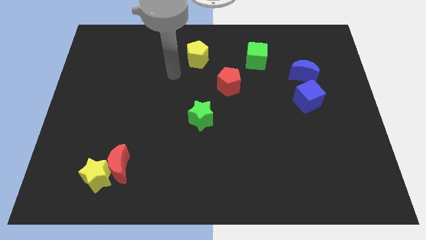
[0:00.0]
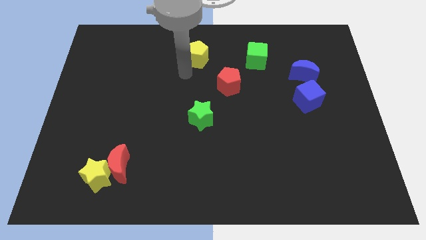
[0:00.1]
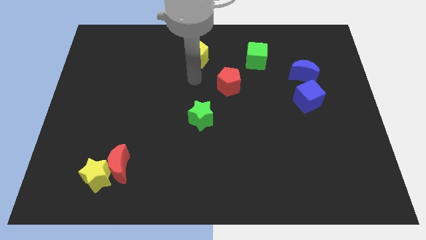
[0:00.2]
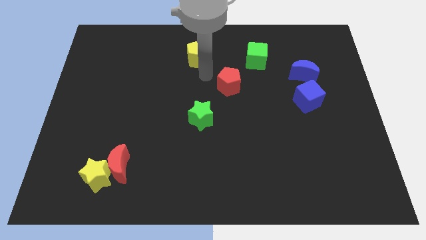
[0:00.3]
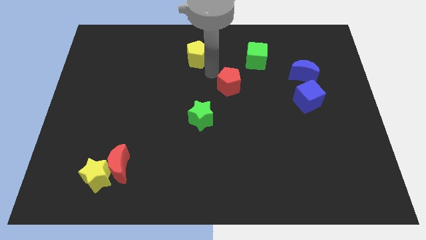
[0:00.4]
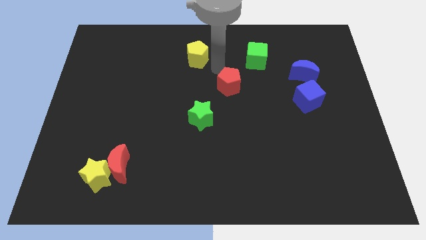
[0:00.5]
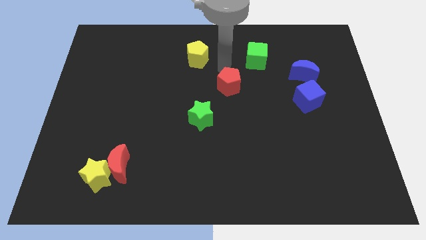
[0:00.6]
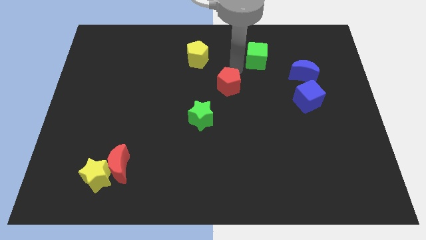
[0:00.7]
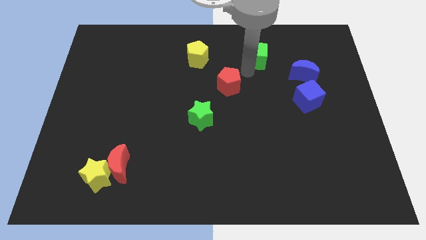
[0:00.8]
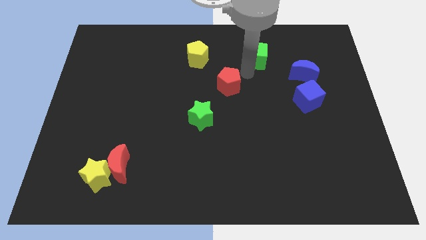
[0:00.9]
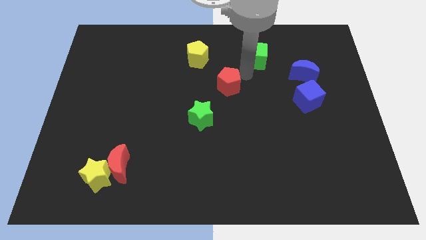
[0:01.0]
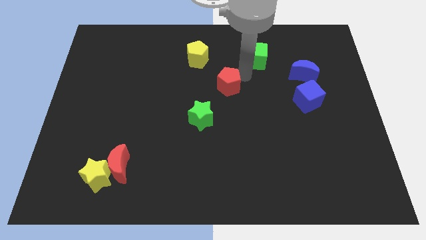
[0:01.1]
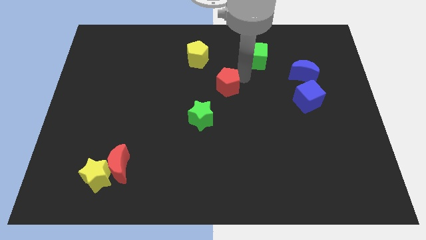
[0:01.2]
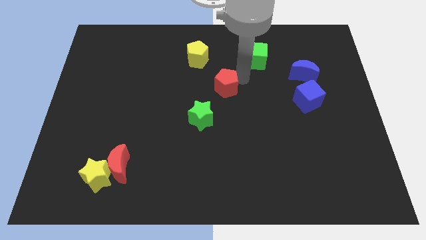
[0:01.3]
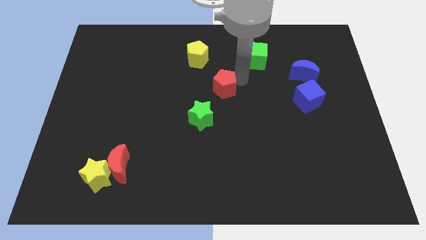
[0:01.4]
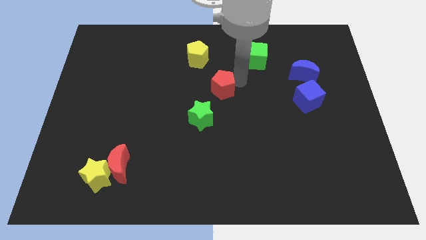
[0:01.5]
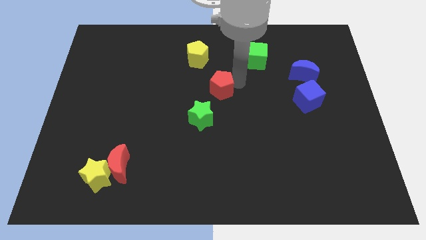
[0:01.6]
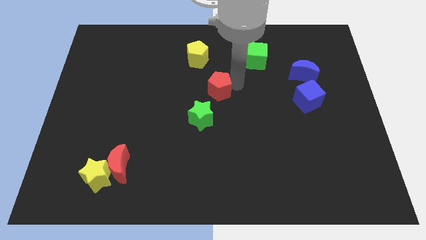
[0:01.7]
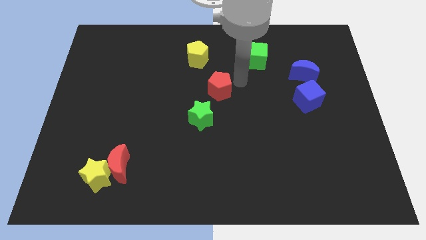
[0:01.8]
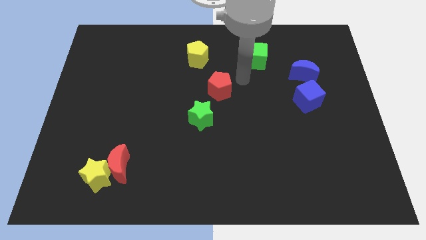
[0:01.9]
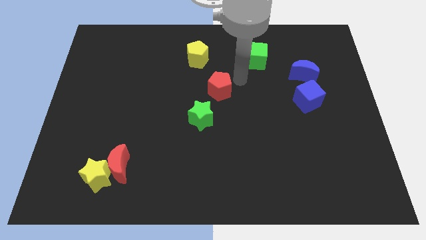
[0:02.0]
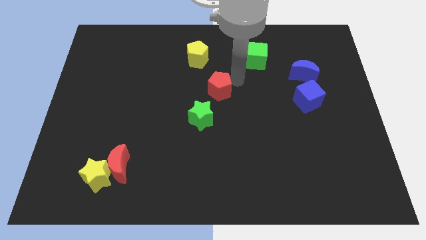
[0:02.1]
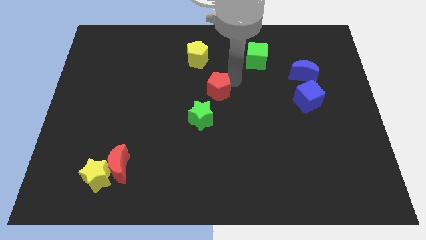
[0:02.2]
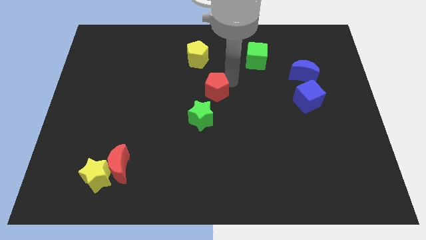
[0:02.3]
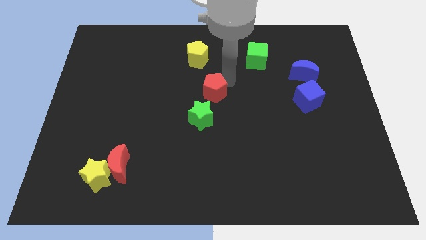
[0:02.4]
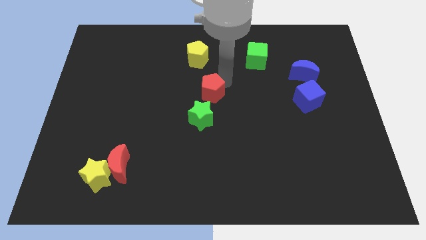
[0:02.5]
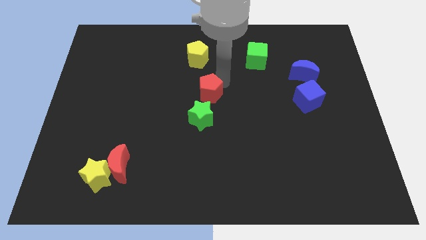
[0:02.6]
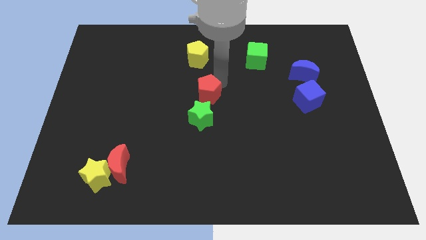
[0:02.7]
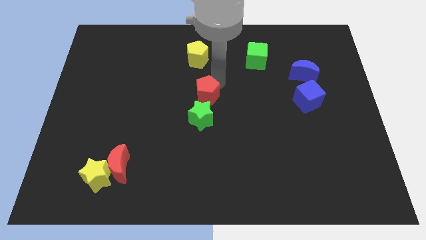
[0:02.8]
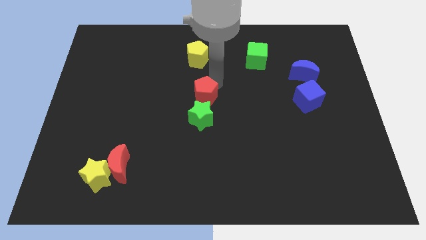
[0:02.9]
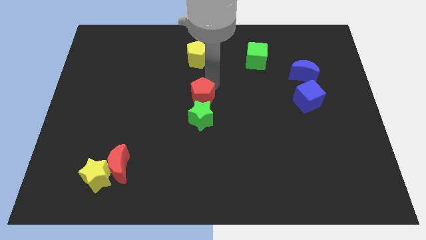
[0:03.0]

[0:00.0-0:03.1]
slide the red pentagon somewhat downwards and left diagonally

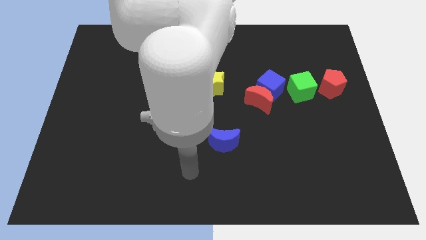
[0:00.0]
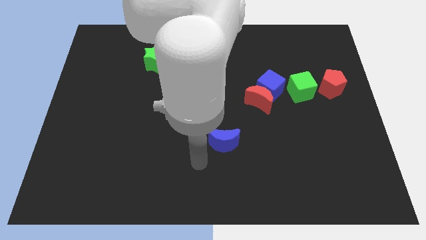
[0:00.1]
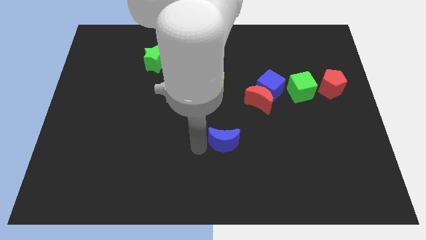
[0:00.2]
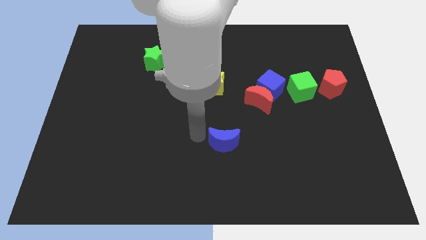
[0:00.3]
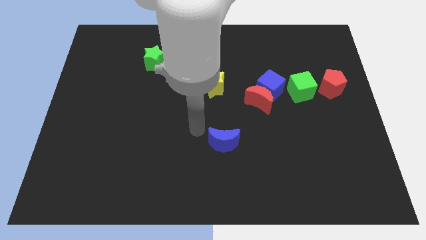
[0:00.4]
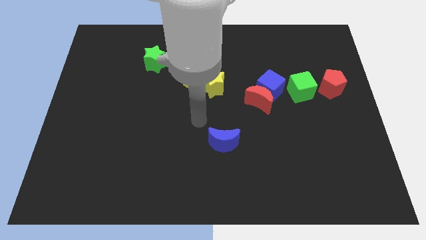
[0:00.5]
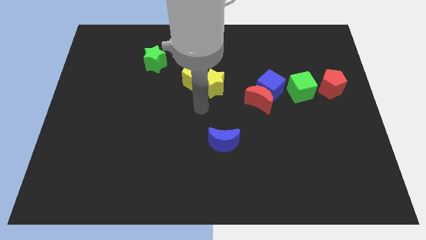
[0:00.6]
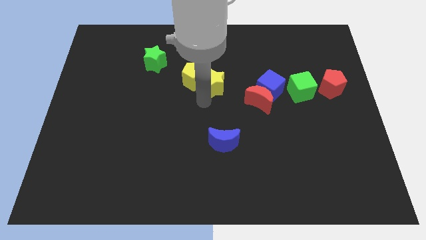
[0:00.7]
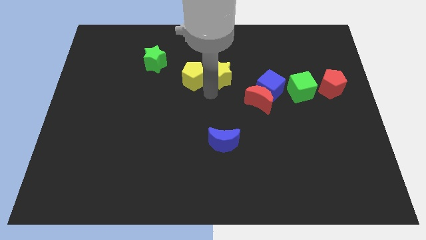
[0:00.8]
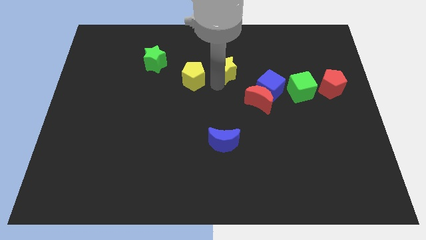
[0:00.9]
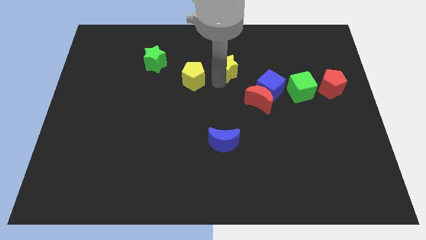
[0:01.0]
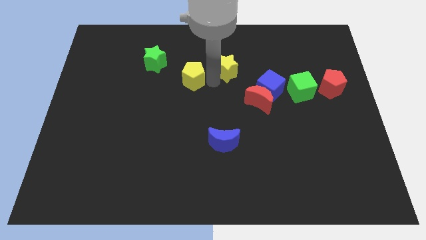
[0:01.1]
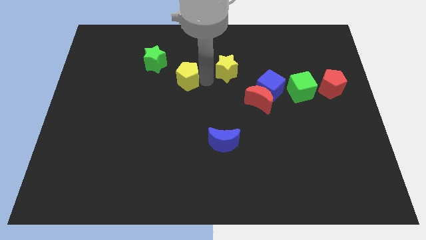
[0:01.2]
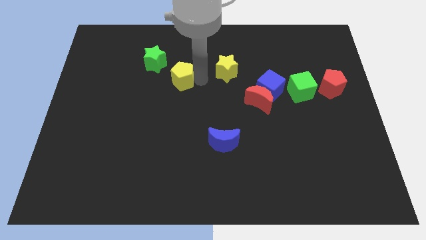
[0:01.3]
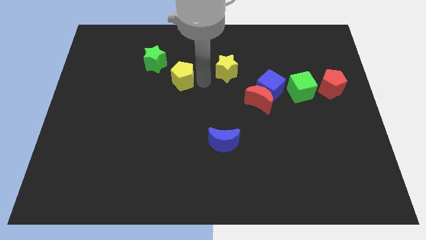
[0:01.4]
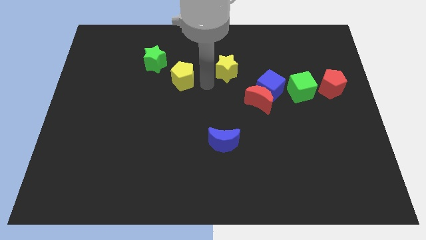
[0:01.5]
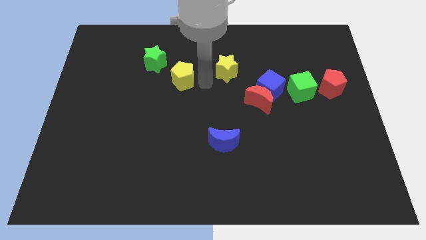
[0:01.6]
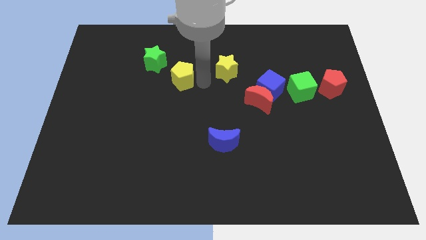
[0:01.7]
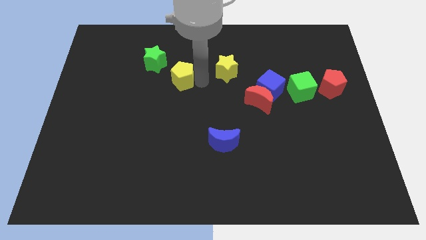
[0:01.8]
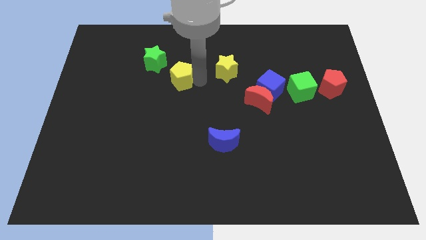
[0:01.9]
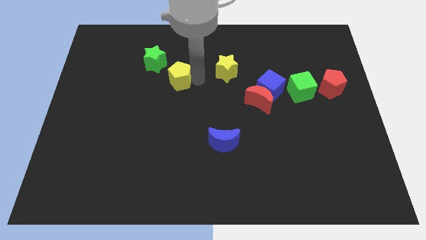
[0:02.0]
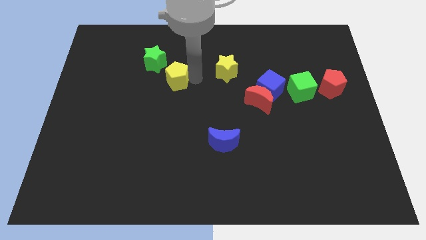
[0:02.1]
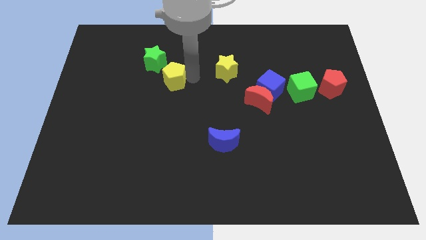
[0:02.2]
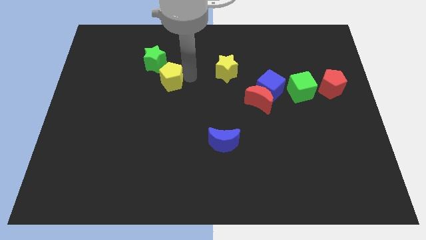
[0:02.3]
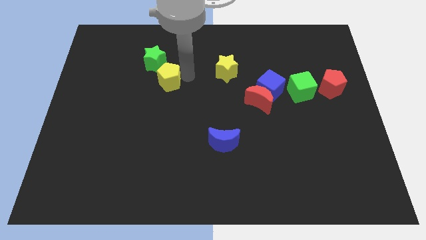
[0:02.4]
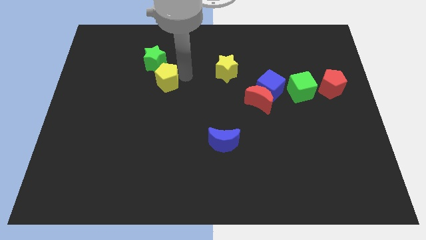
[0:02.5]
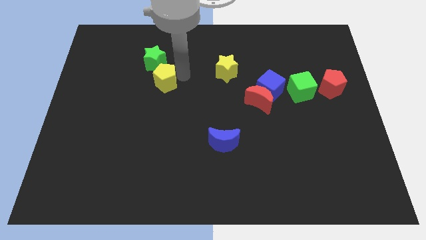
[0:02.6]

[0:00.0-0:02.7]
move the yellow pentagon slightly to the left

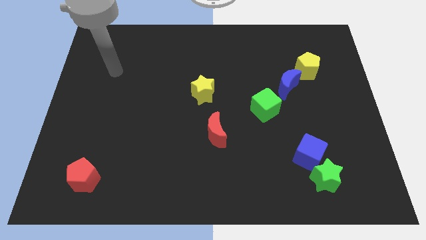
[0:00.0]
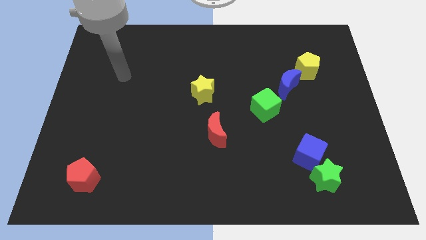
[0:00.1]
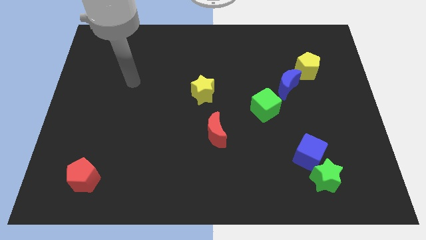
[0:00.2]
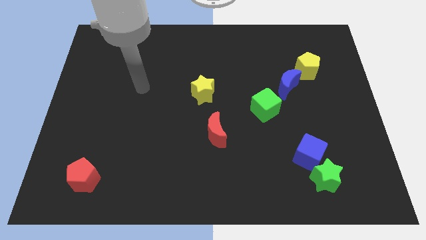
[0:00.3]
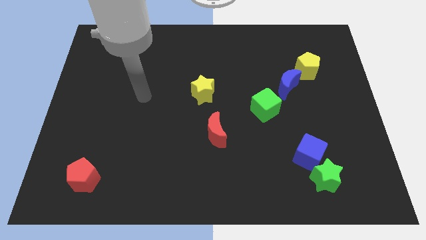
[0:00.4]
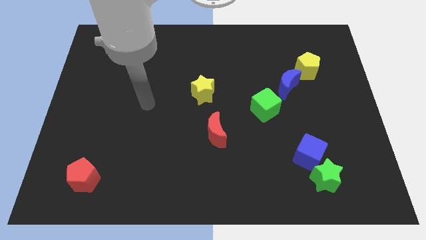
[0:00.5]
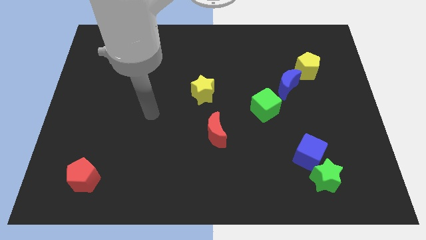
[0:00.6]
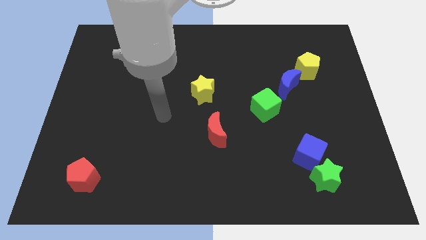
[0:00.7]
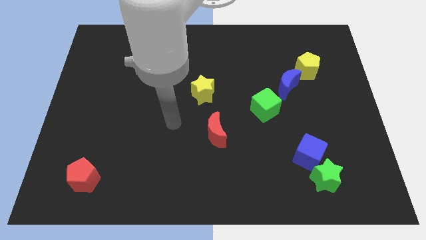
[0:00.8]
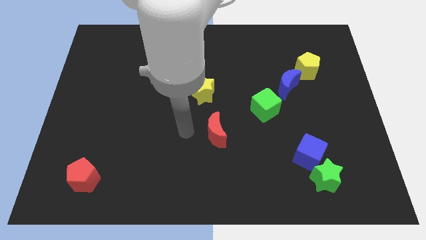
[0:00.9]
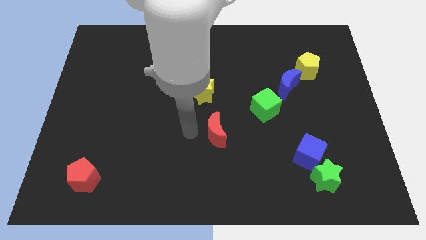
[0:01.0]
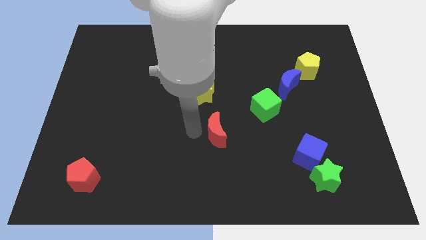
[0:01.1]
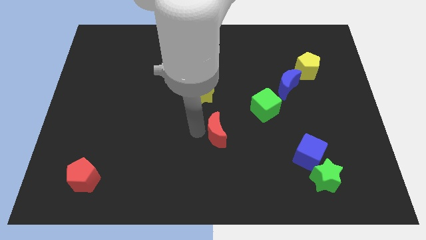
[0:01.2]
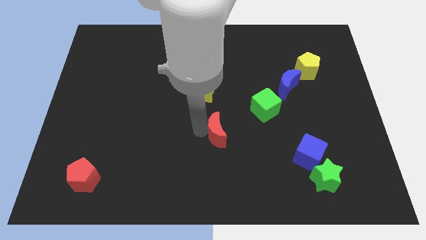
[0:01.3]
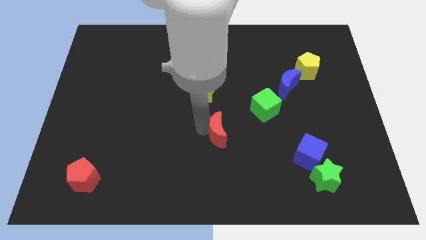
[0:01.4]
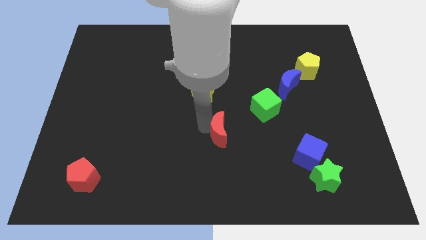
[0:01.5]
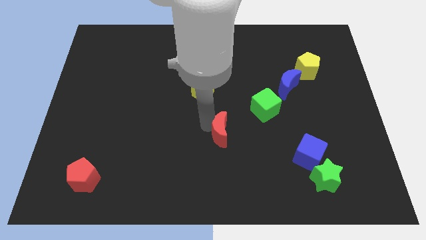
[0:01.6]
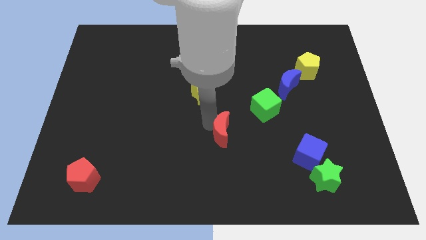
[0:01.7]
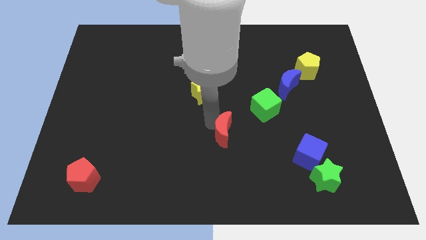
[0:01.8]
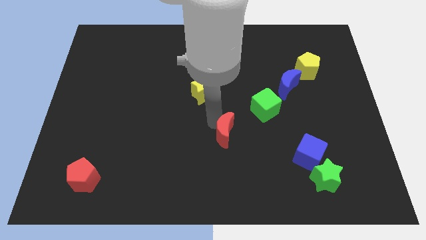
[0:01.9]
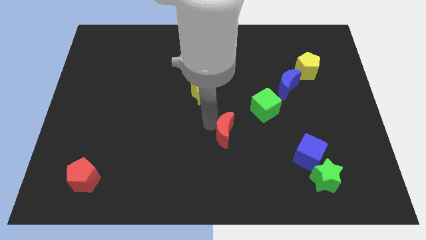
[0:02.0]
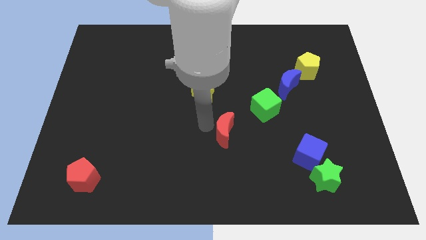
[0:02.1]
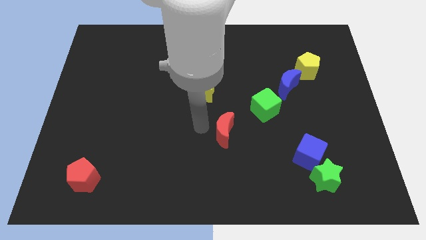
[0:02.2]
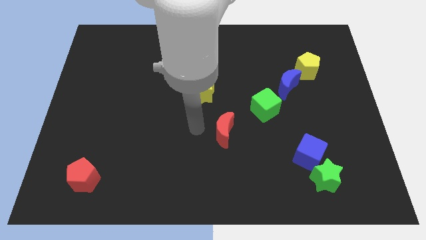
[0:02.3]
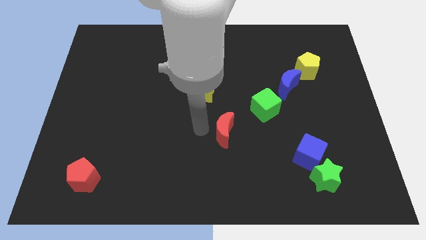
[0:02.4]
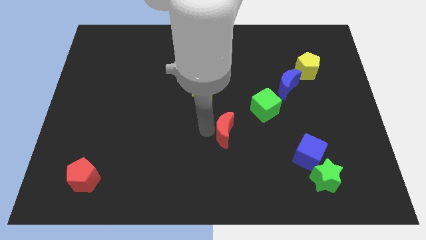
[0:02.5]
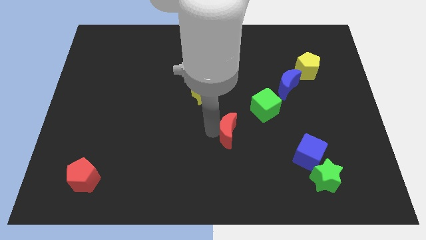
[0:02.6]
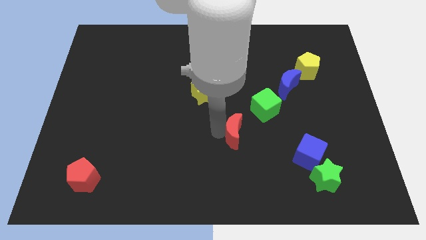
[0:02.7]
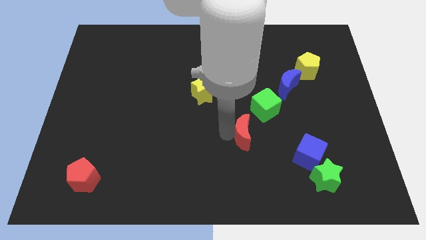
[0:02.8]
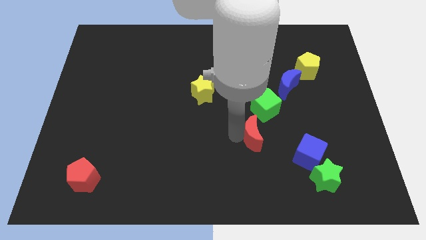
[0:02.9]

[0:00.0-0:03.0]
push the red moon right a little bit
